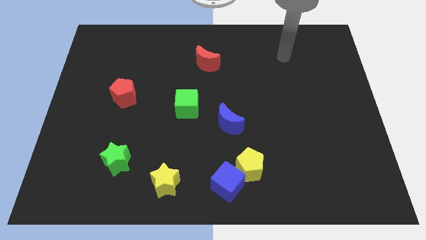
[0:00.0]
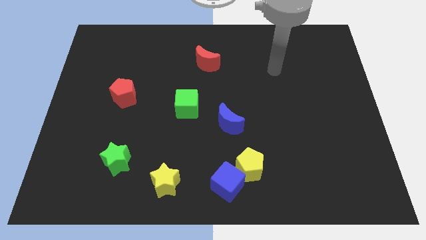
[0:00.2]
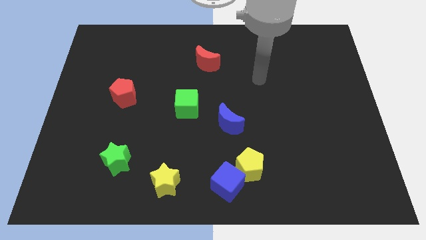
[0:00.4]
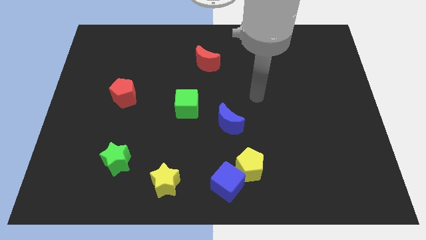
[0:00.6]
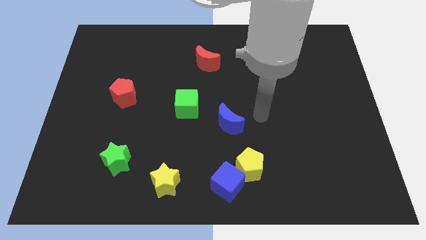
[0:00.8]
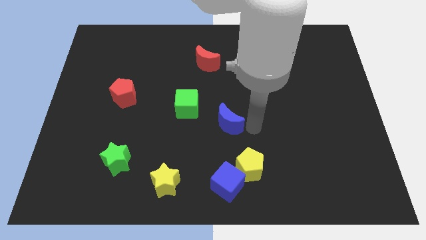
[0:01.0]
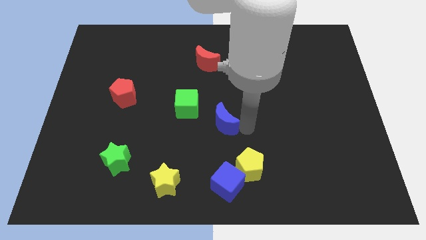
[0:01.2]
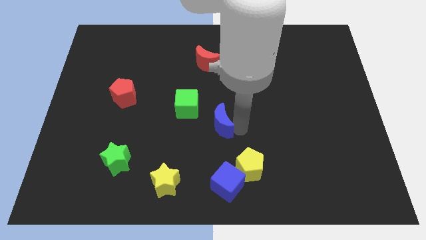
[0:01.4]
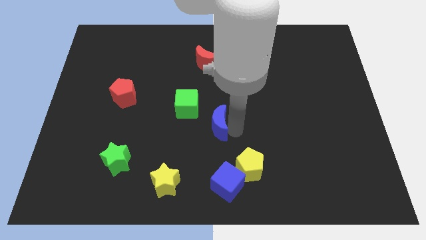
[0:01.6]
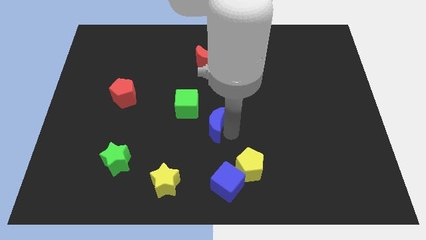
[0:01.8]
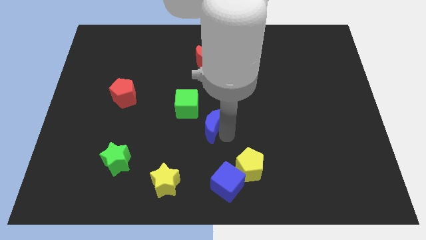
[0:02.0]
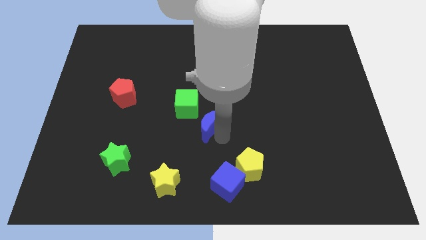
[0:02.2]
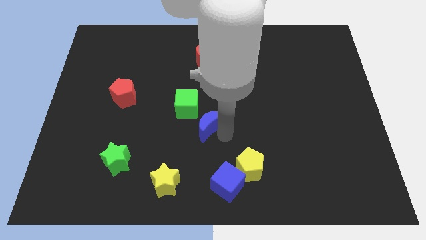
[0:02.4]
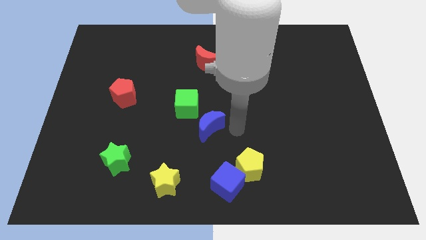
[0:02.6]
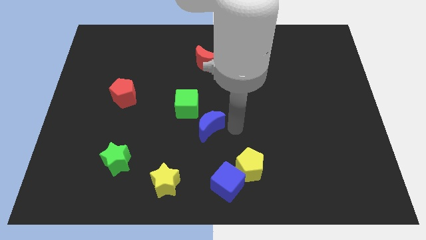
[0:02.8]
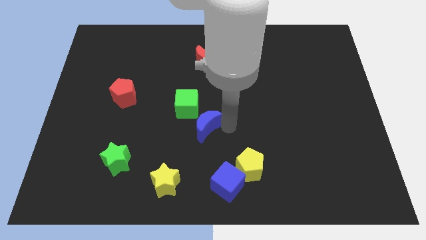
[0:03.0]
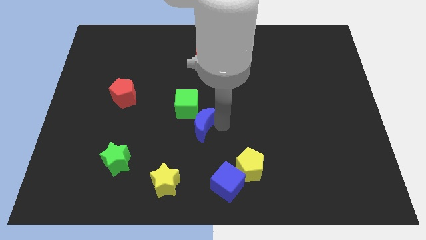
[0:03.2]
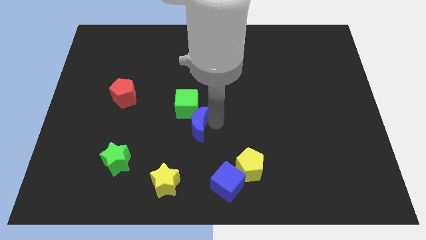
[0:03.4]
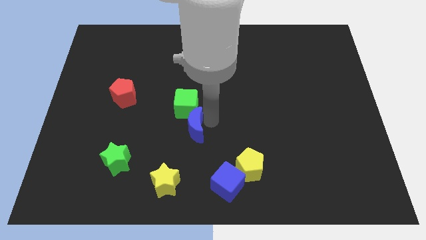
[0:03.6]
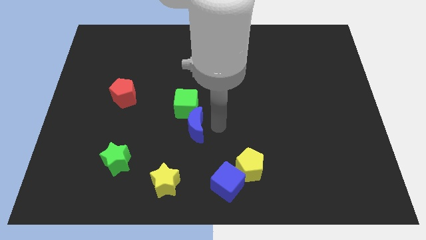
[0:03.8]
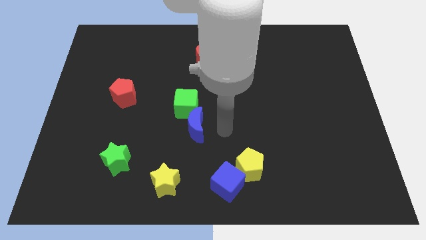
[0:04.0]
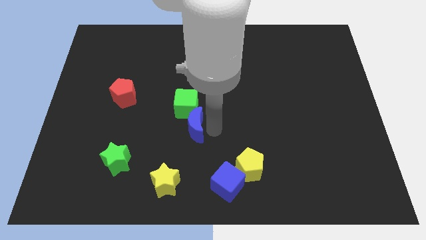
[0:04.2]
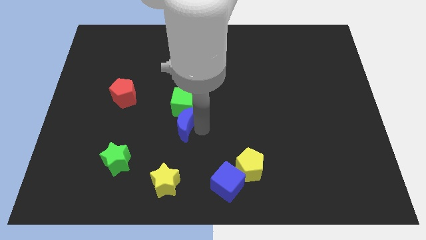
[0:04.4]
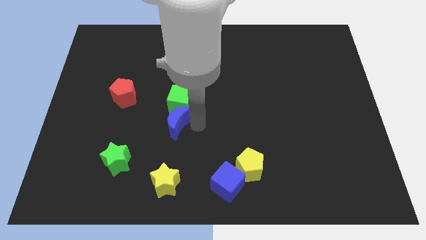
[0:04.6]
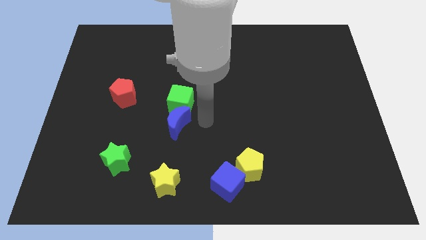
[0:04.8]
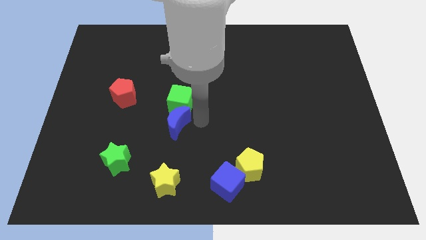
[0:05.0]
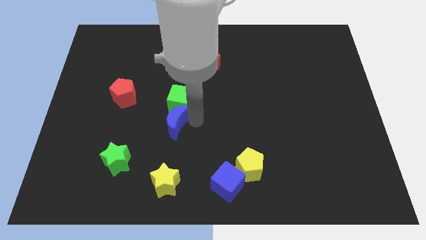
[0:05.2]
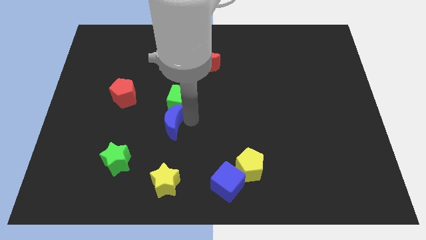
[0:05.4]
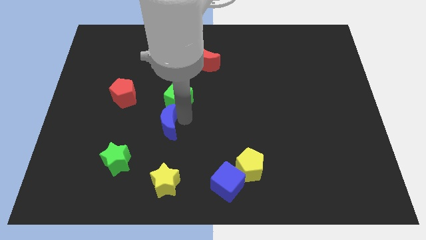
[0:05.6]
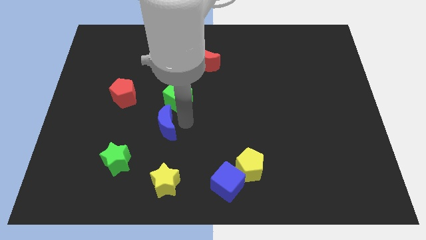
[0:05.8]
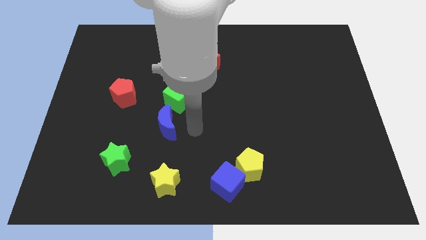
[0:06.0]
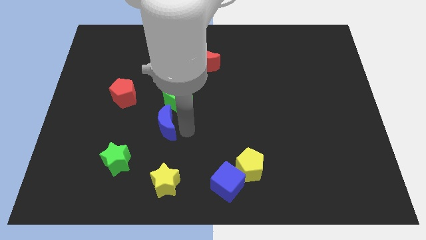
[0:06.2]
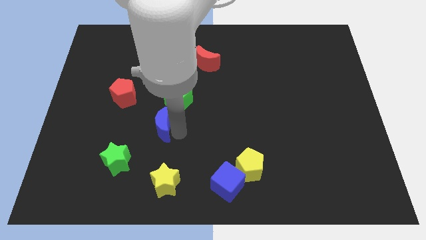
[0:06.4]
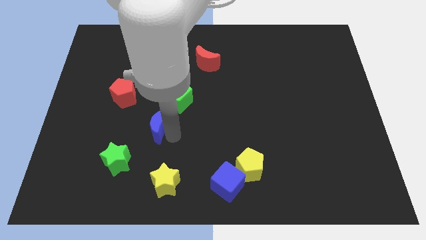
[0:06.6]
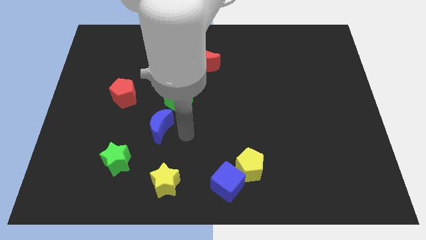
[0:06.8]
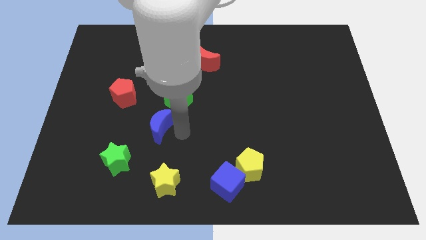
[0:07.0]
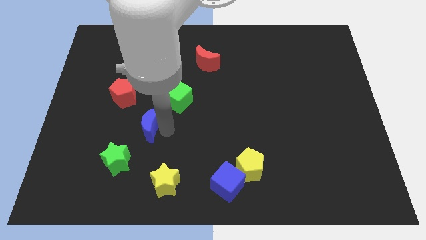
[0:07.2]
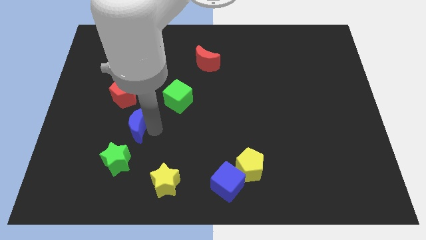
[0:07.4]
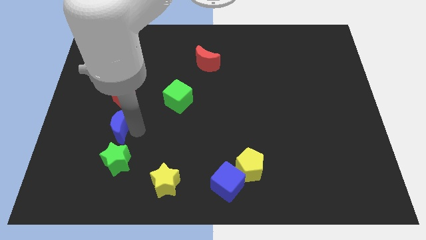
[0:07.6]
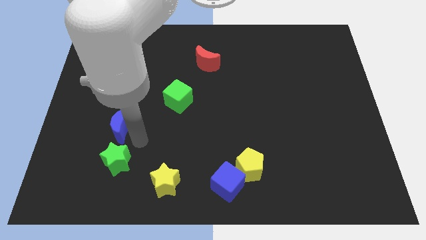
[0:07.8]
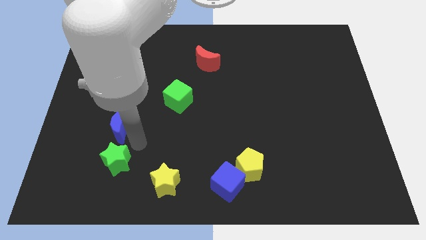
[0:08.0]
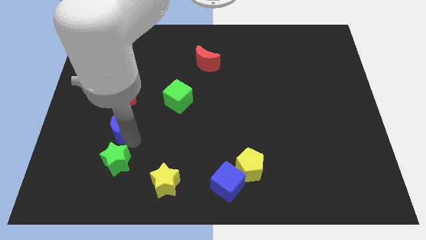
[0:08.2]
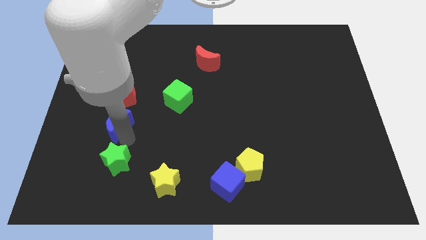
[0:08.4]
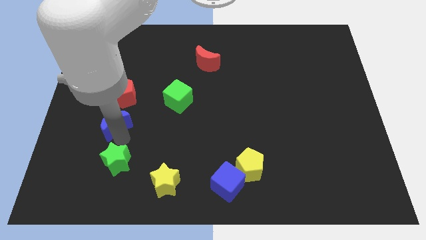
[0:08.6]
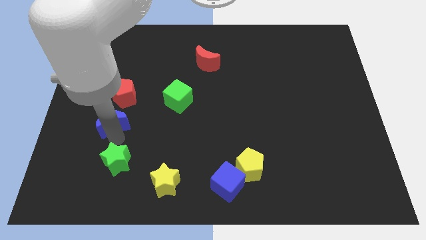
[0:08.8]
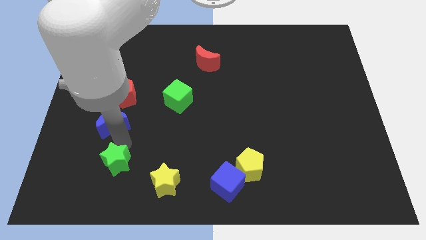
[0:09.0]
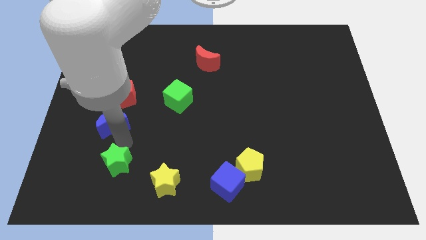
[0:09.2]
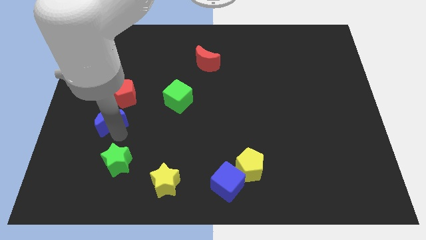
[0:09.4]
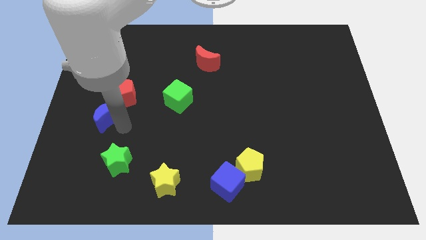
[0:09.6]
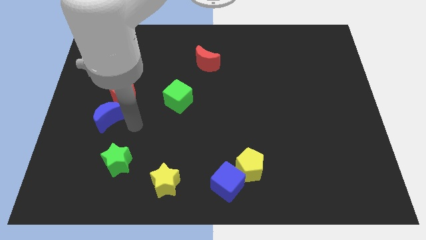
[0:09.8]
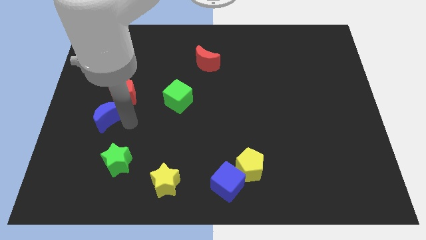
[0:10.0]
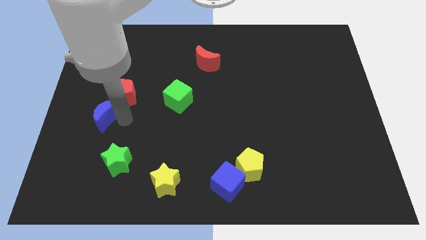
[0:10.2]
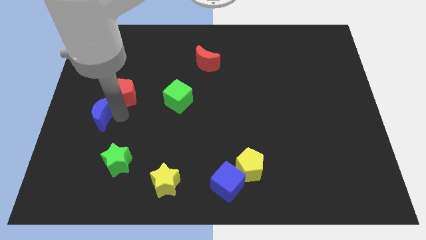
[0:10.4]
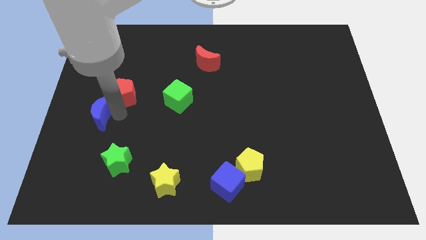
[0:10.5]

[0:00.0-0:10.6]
put the blue moon to the center left

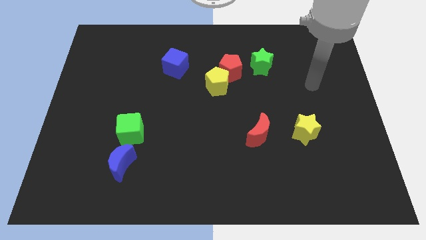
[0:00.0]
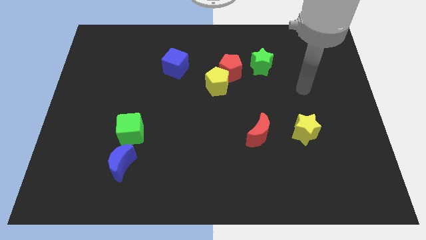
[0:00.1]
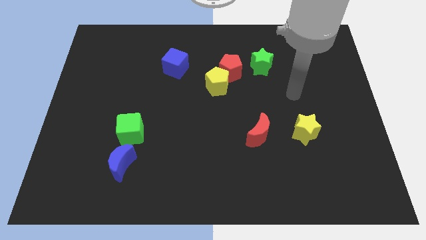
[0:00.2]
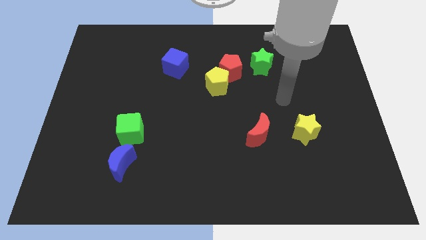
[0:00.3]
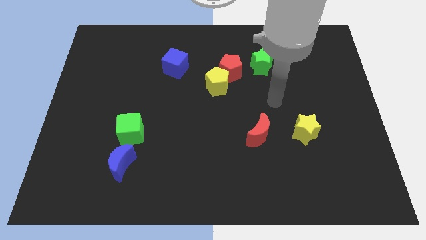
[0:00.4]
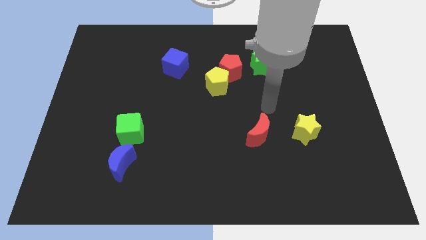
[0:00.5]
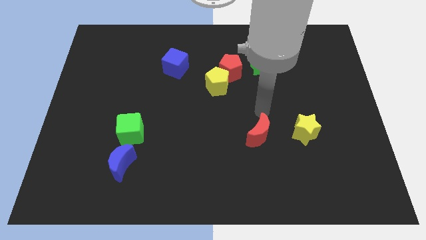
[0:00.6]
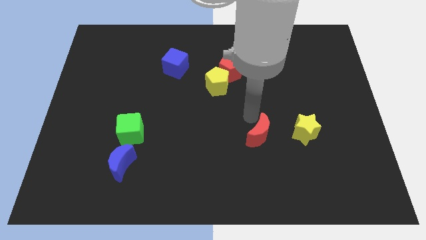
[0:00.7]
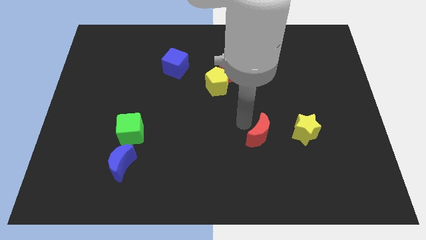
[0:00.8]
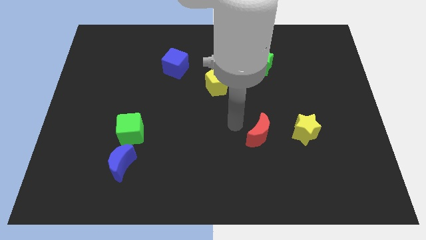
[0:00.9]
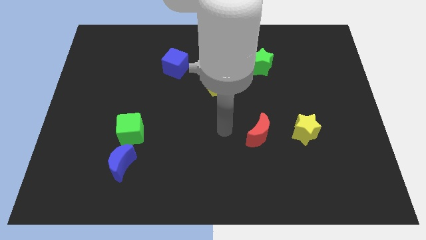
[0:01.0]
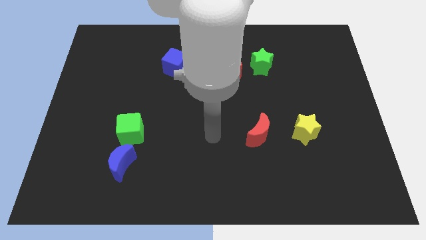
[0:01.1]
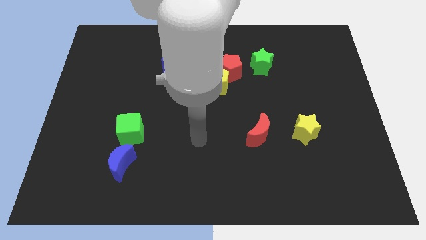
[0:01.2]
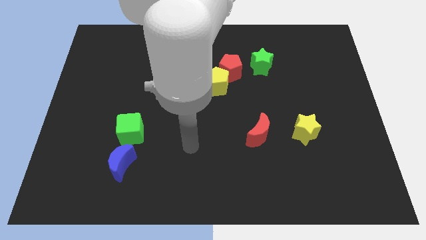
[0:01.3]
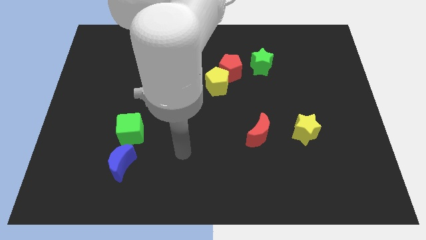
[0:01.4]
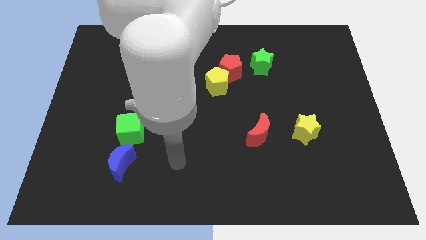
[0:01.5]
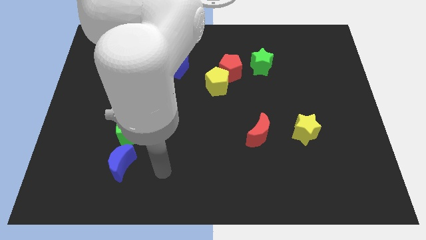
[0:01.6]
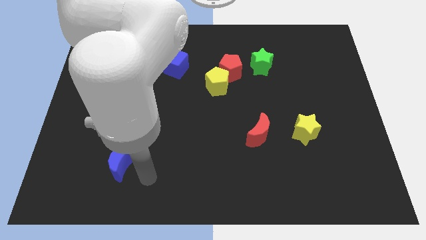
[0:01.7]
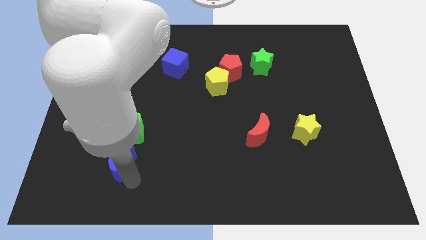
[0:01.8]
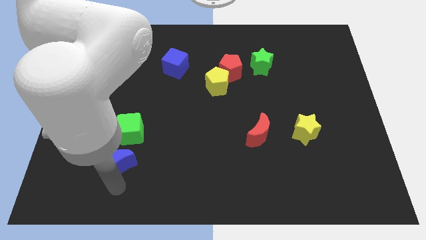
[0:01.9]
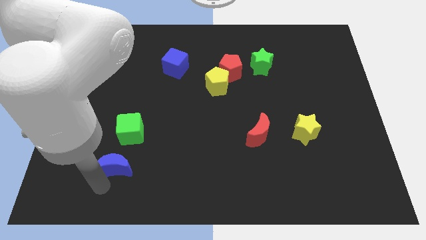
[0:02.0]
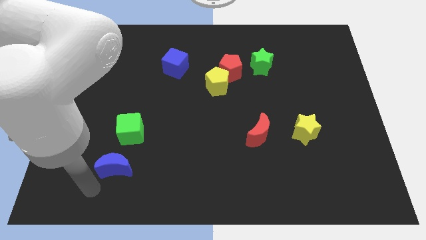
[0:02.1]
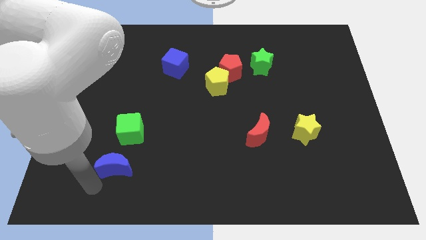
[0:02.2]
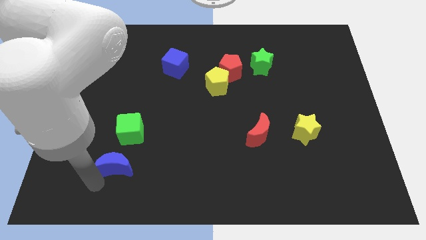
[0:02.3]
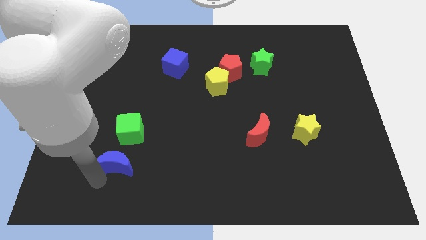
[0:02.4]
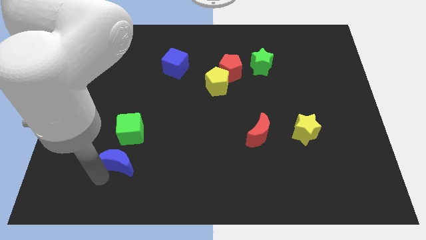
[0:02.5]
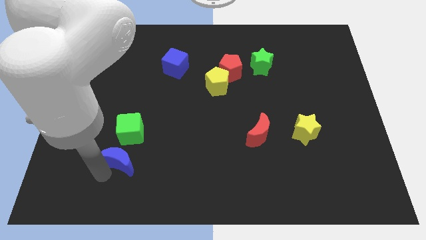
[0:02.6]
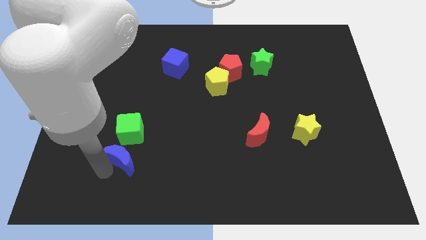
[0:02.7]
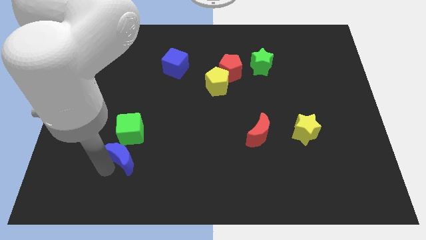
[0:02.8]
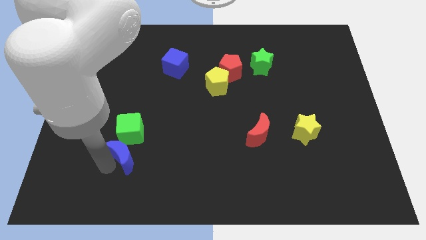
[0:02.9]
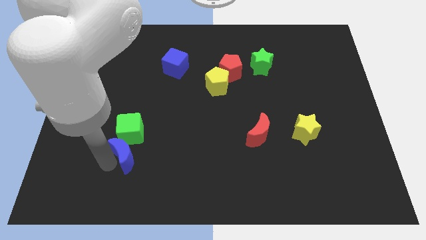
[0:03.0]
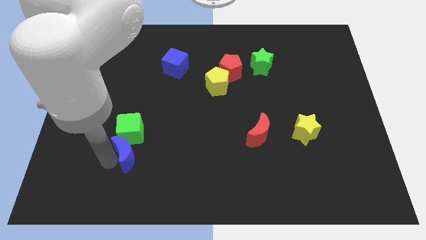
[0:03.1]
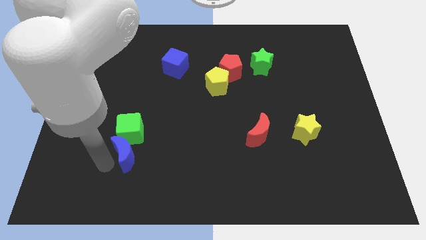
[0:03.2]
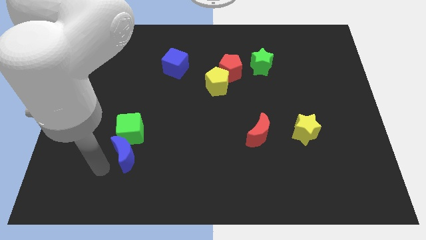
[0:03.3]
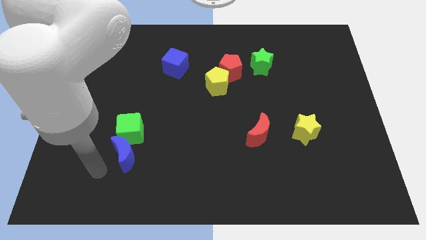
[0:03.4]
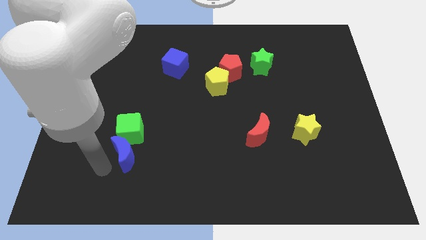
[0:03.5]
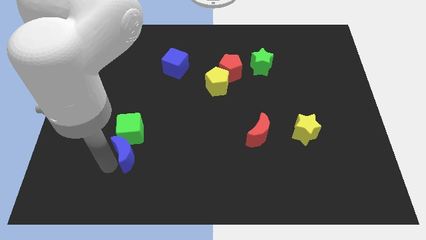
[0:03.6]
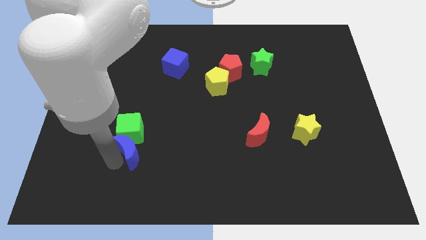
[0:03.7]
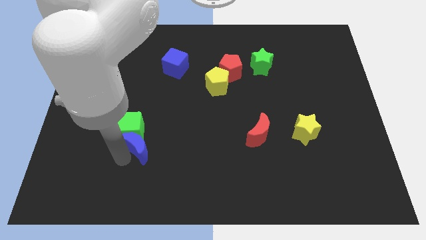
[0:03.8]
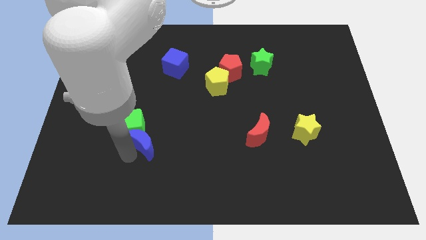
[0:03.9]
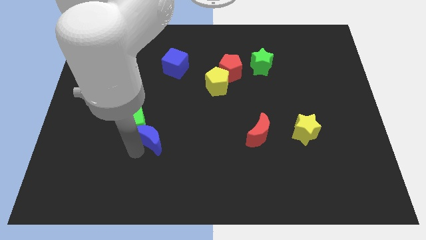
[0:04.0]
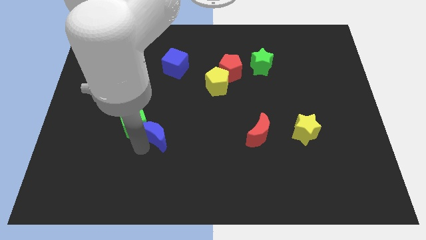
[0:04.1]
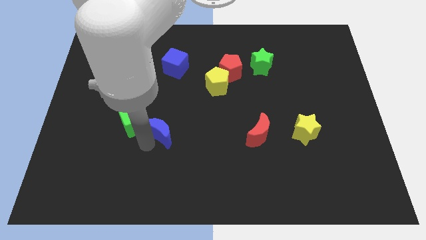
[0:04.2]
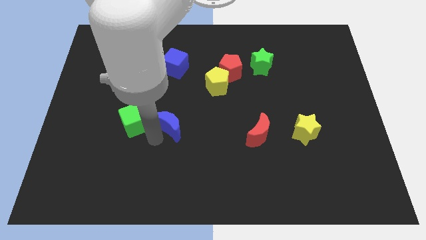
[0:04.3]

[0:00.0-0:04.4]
push the blue moon to the middle of the board
